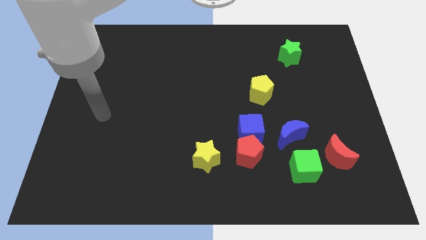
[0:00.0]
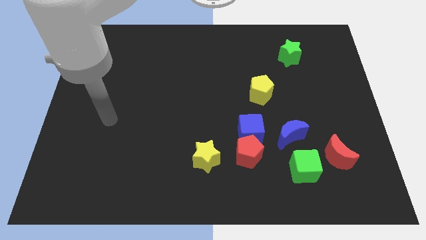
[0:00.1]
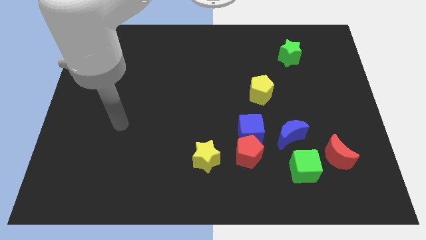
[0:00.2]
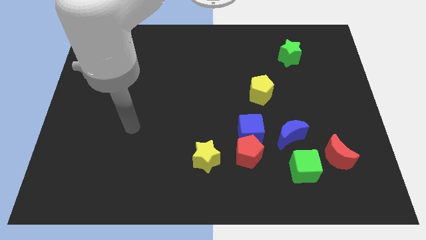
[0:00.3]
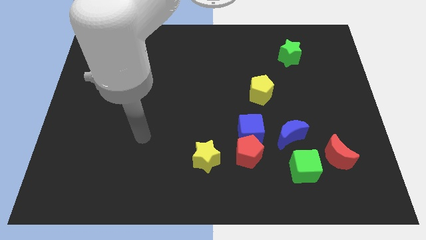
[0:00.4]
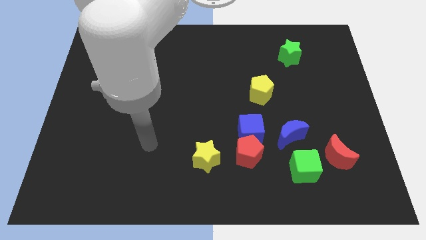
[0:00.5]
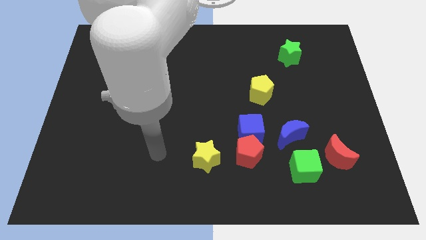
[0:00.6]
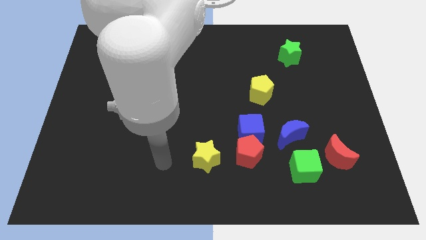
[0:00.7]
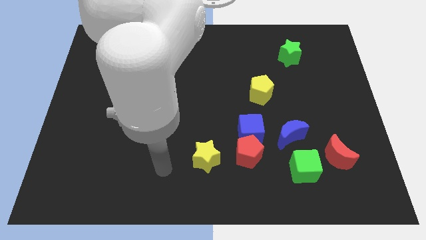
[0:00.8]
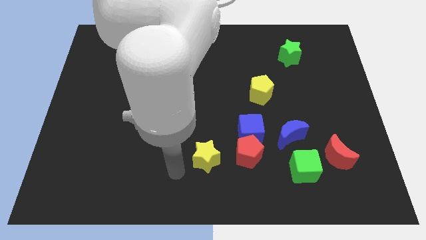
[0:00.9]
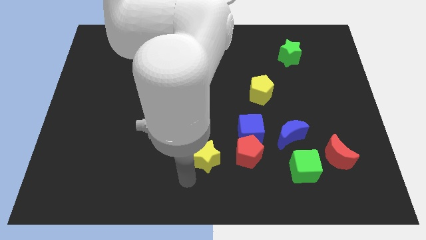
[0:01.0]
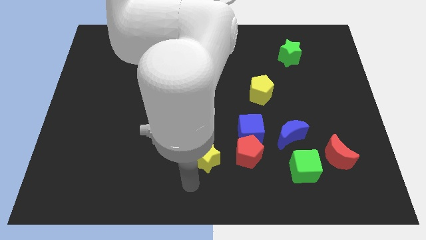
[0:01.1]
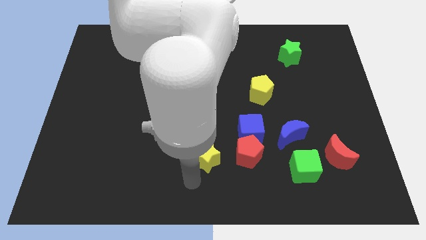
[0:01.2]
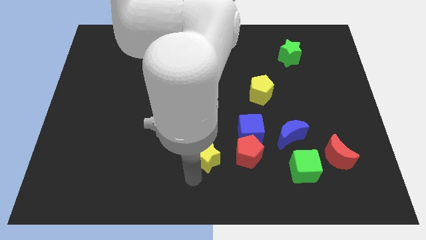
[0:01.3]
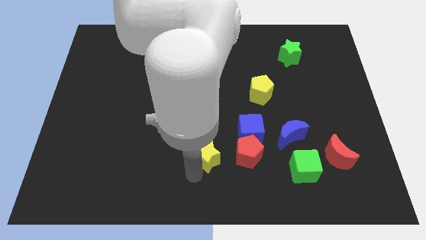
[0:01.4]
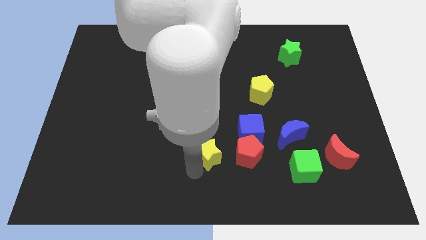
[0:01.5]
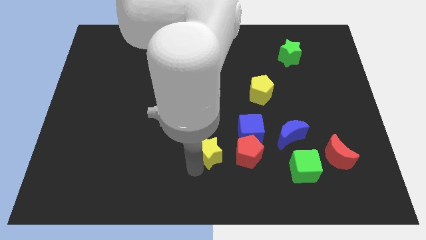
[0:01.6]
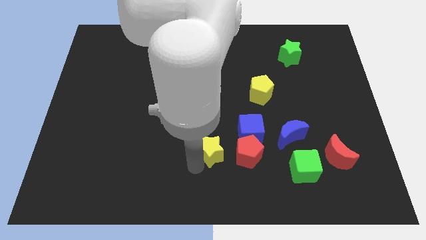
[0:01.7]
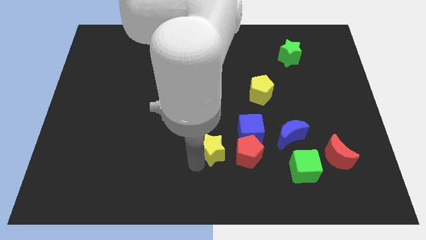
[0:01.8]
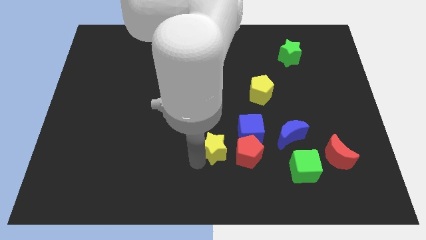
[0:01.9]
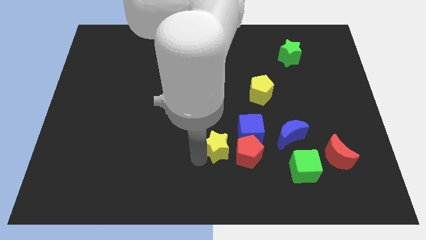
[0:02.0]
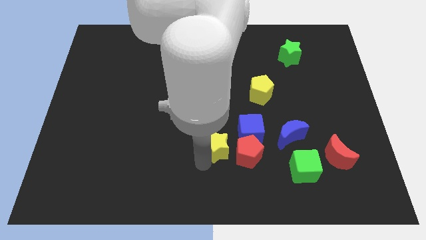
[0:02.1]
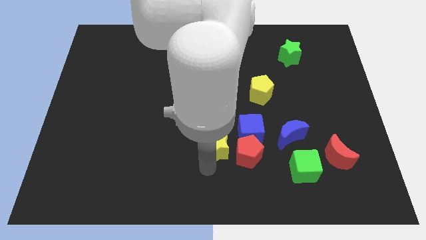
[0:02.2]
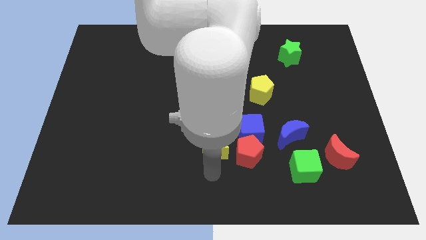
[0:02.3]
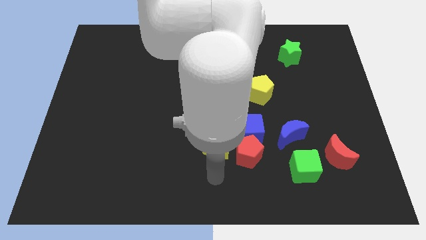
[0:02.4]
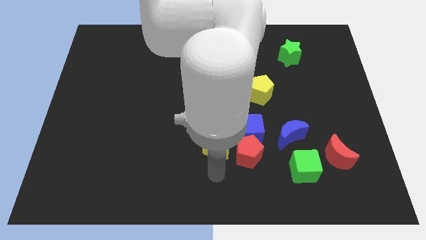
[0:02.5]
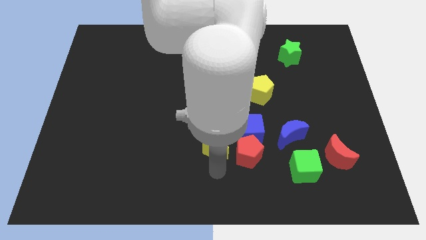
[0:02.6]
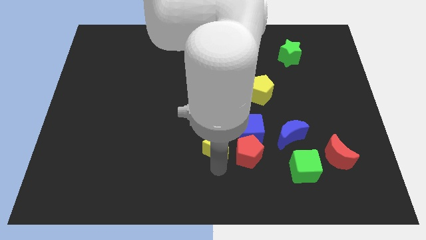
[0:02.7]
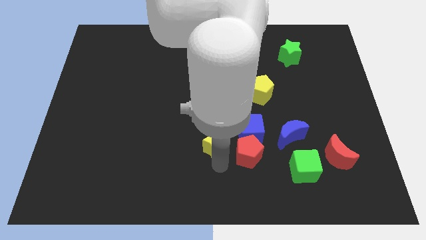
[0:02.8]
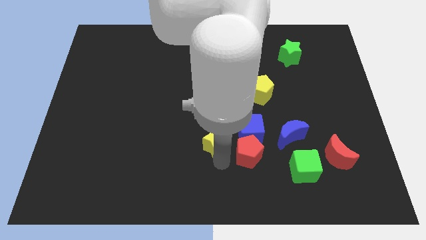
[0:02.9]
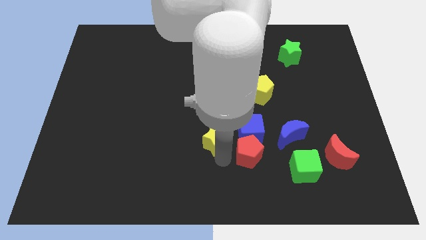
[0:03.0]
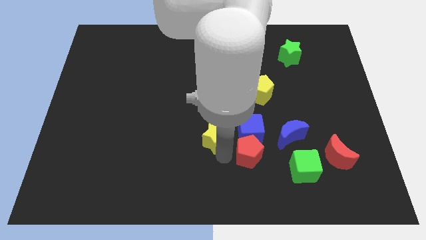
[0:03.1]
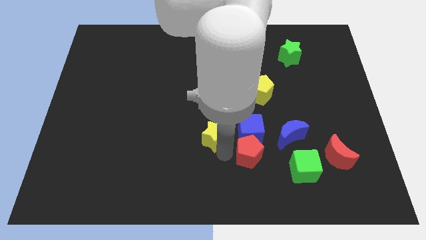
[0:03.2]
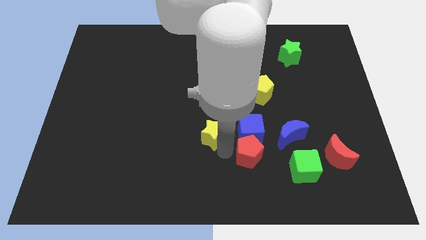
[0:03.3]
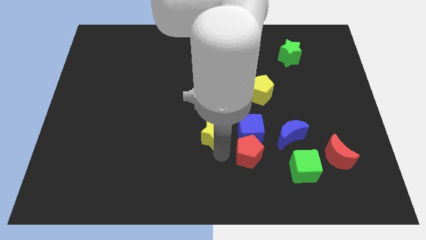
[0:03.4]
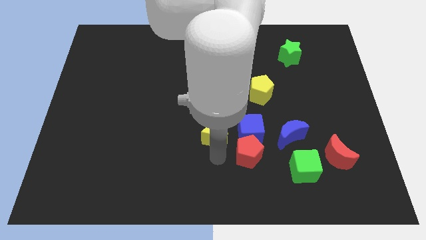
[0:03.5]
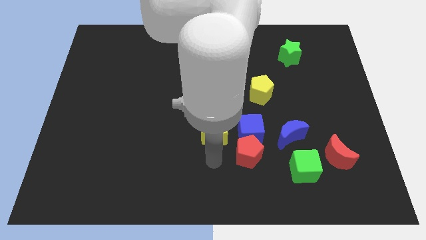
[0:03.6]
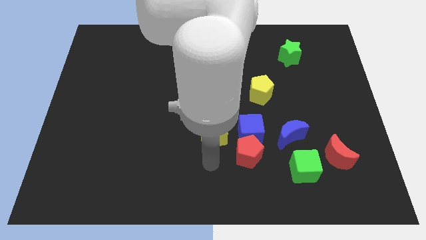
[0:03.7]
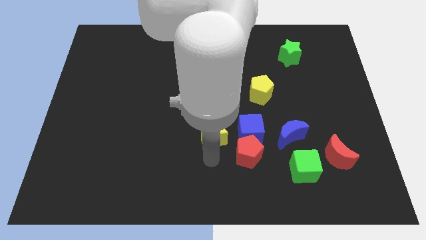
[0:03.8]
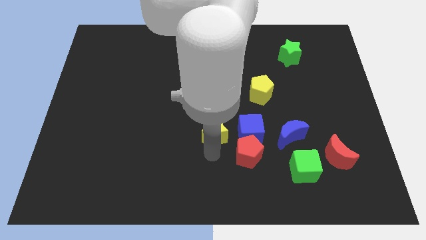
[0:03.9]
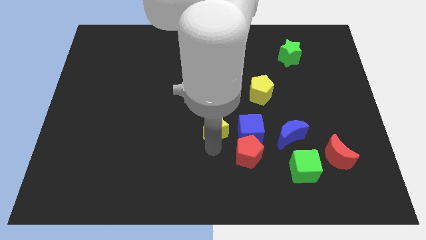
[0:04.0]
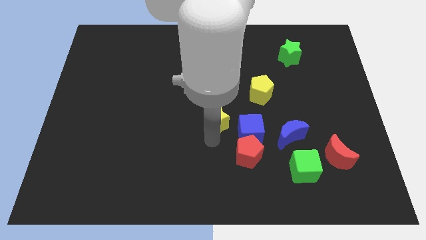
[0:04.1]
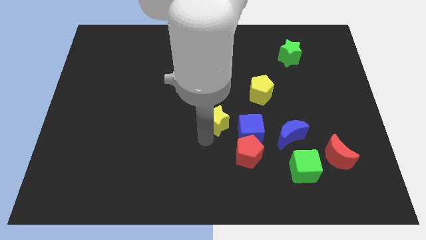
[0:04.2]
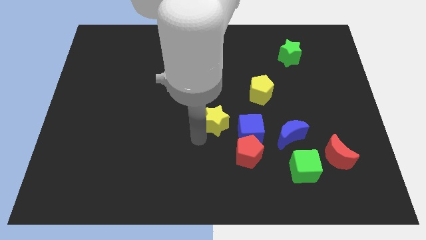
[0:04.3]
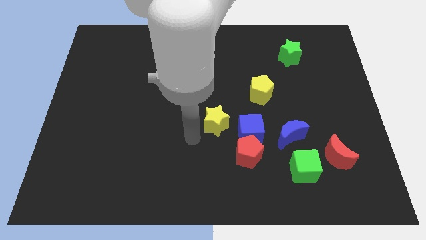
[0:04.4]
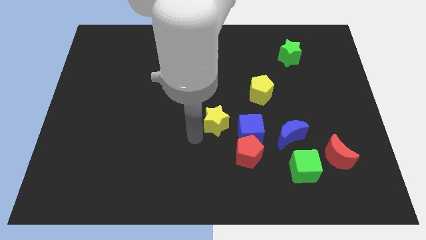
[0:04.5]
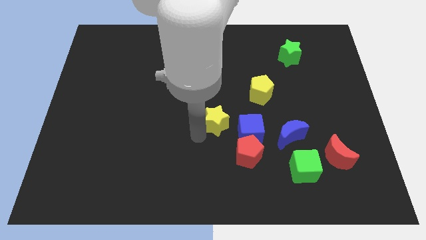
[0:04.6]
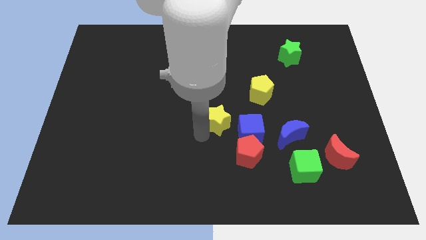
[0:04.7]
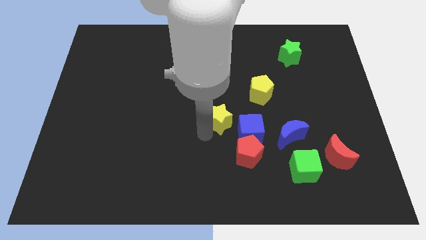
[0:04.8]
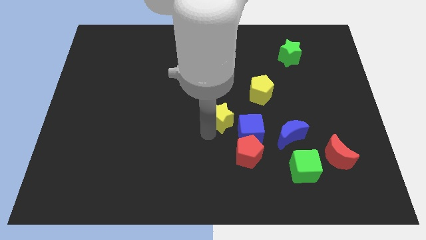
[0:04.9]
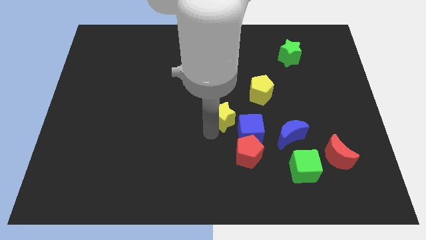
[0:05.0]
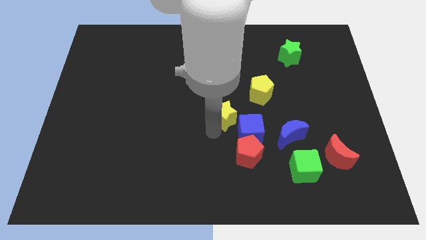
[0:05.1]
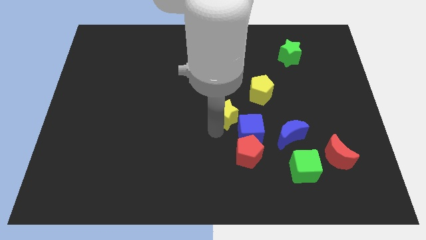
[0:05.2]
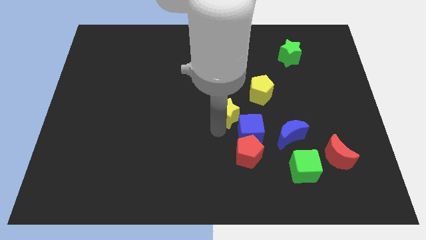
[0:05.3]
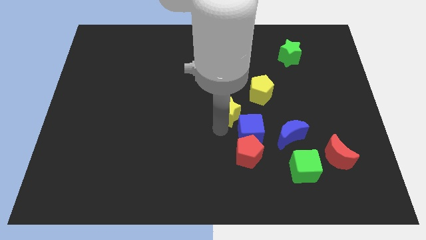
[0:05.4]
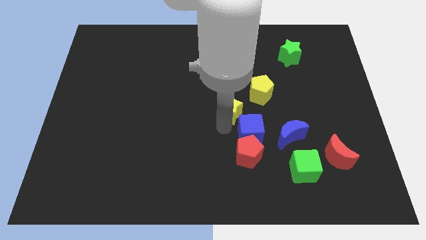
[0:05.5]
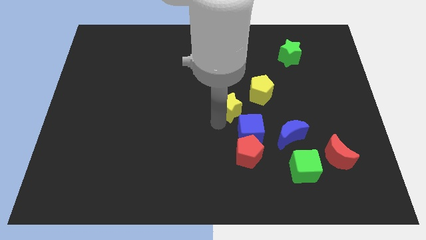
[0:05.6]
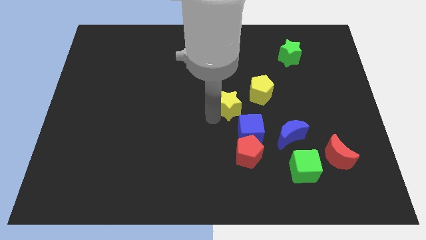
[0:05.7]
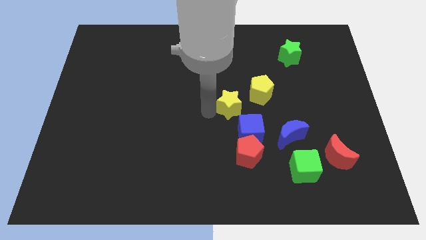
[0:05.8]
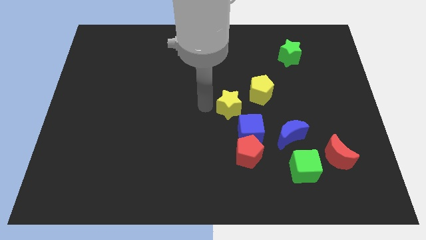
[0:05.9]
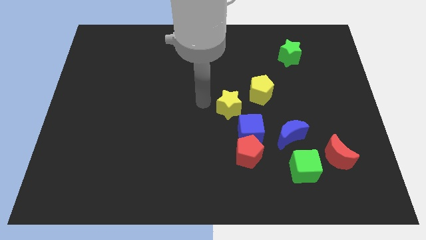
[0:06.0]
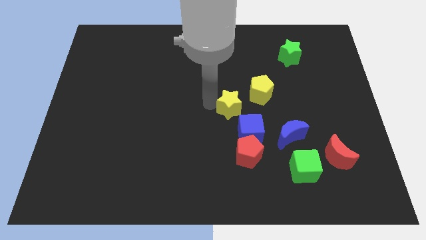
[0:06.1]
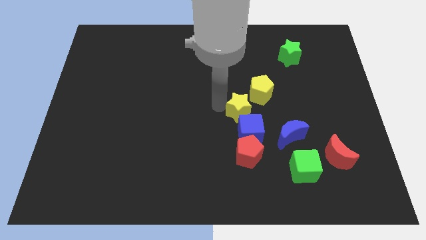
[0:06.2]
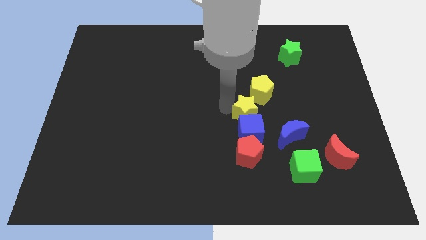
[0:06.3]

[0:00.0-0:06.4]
slide the yellow star diagonally up and to the left of the blue moon
